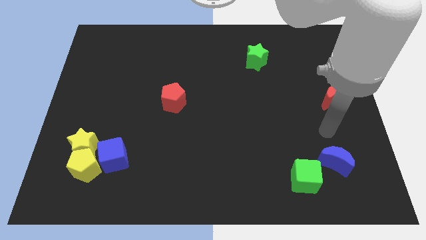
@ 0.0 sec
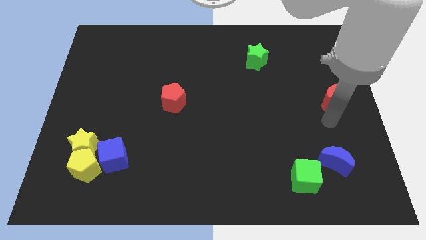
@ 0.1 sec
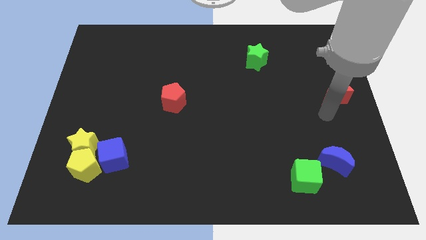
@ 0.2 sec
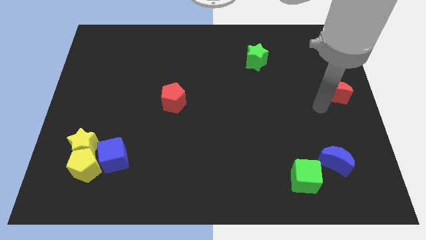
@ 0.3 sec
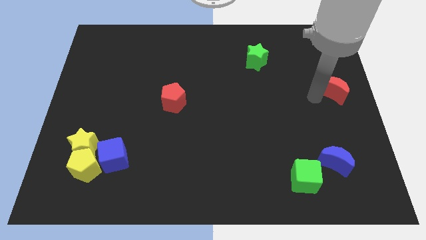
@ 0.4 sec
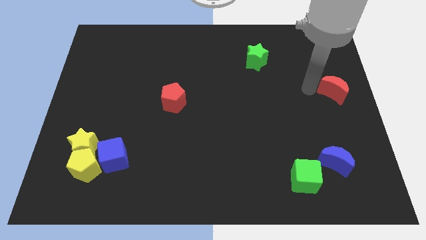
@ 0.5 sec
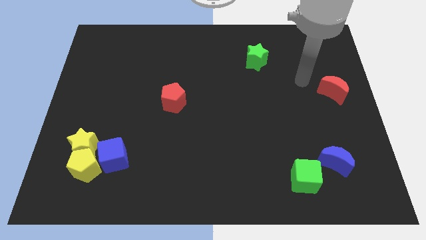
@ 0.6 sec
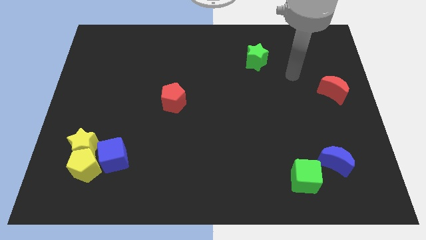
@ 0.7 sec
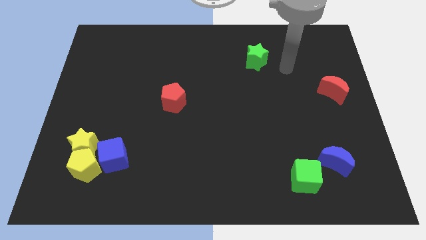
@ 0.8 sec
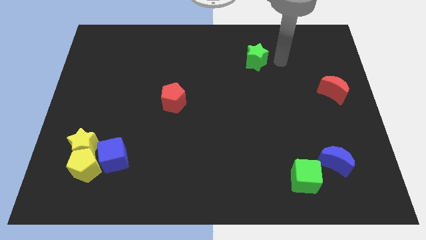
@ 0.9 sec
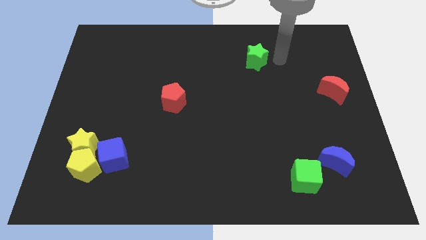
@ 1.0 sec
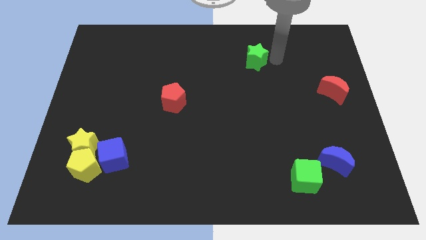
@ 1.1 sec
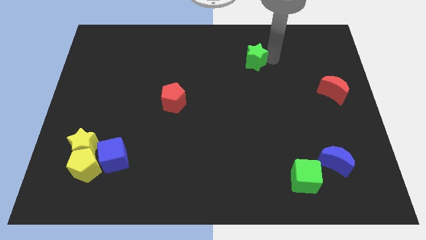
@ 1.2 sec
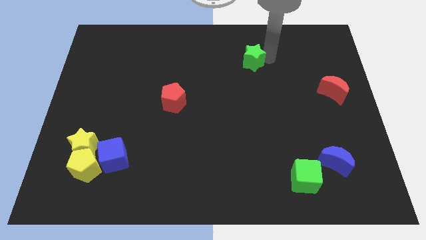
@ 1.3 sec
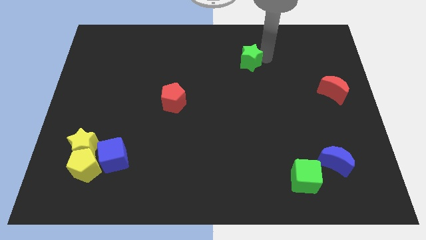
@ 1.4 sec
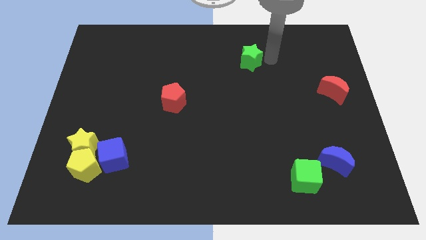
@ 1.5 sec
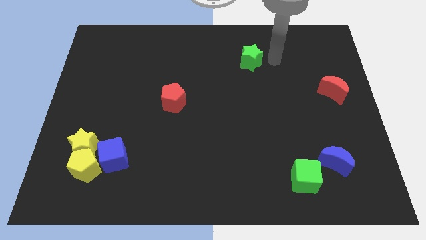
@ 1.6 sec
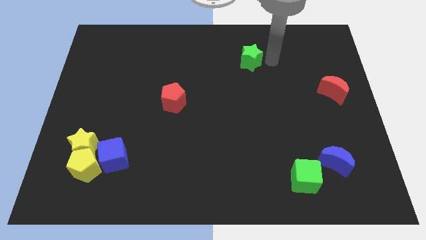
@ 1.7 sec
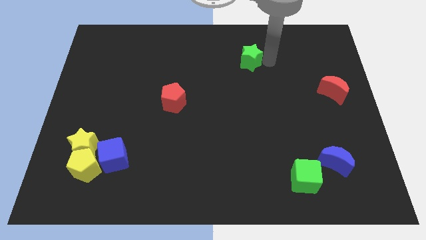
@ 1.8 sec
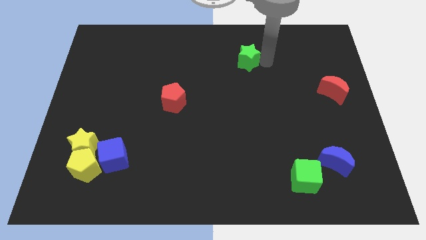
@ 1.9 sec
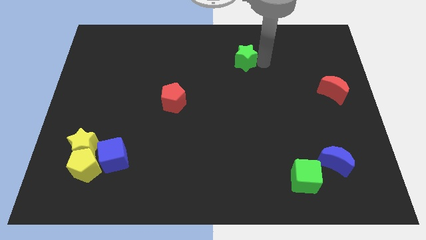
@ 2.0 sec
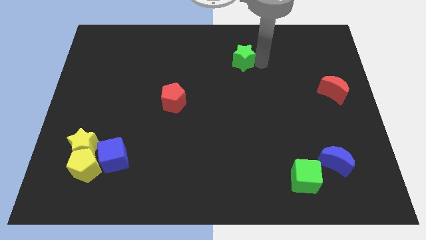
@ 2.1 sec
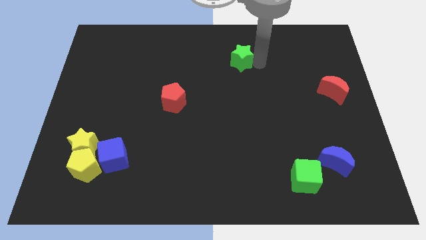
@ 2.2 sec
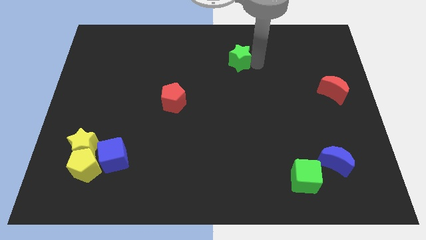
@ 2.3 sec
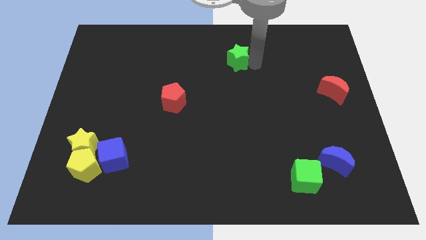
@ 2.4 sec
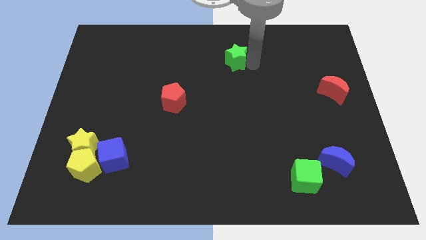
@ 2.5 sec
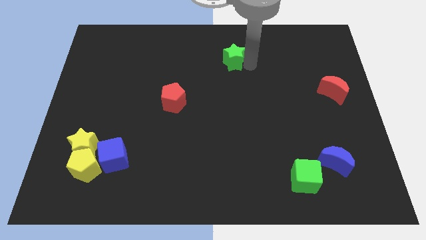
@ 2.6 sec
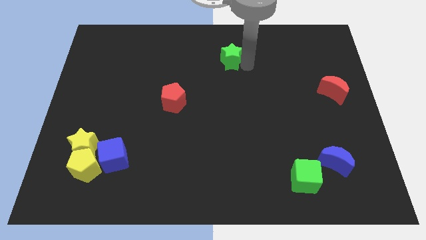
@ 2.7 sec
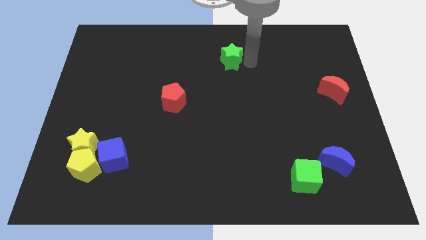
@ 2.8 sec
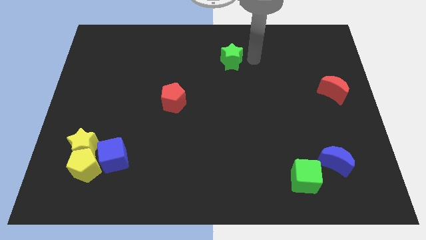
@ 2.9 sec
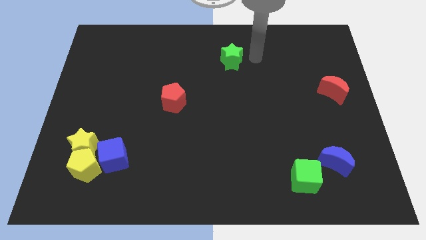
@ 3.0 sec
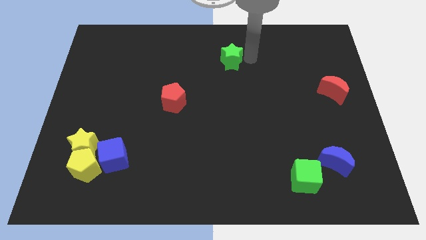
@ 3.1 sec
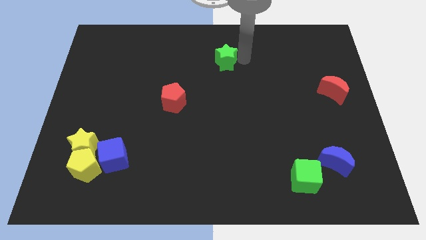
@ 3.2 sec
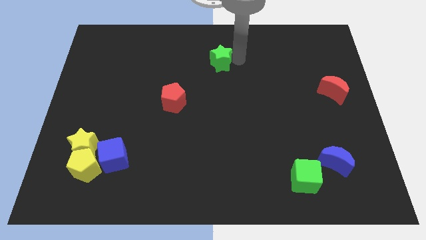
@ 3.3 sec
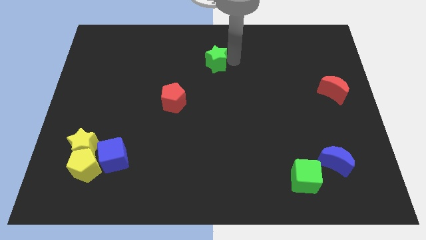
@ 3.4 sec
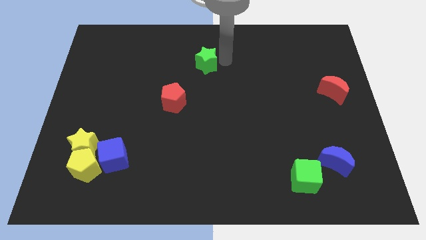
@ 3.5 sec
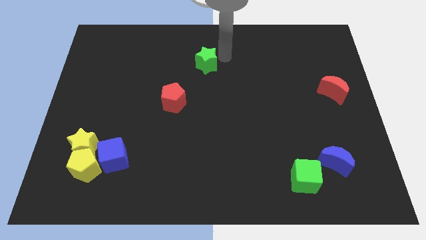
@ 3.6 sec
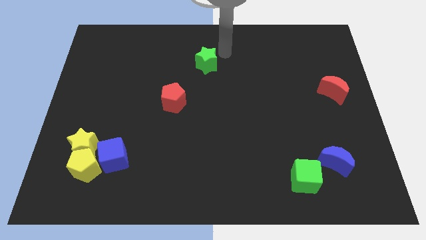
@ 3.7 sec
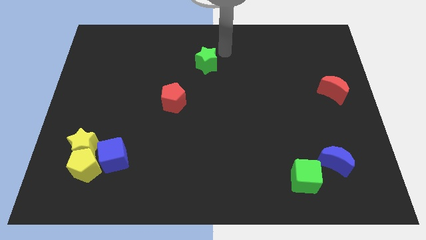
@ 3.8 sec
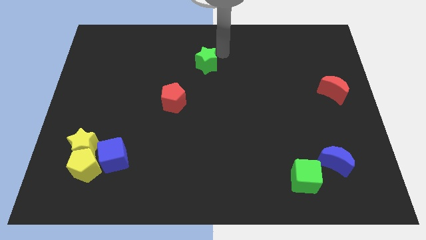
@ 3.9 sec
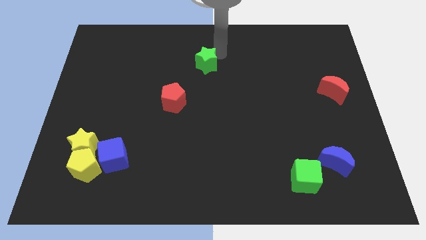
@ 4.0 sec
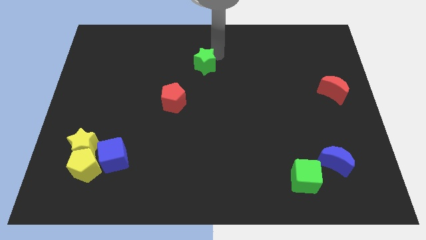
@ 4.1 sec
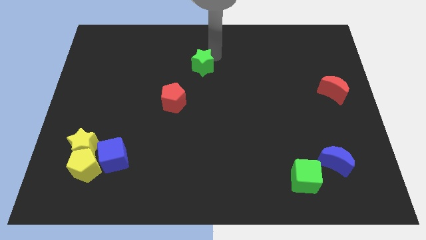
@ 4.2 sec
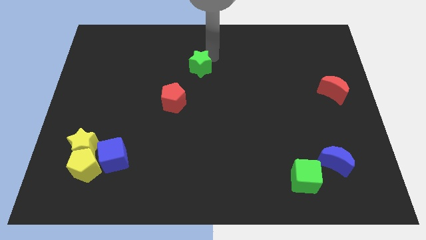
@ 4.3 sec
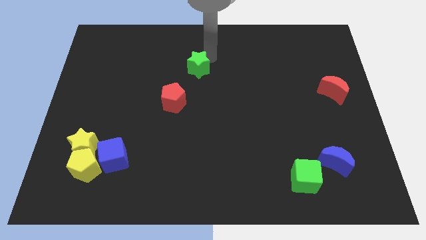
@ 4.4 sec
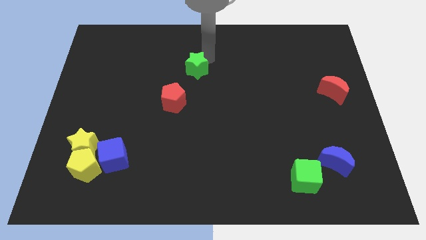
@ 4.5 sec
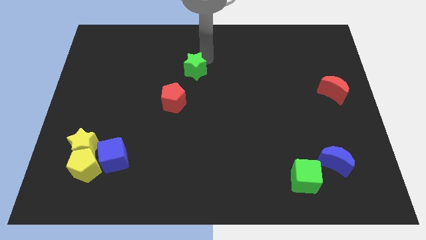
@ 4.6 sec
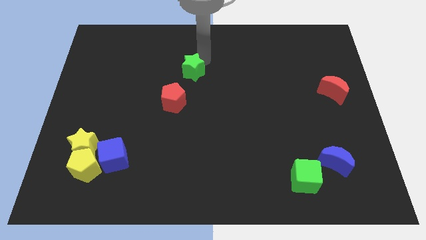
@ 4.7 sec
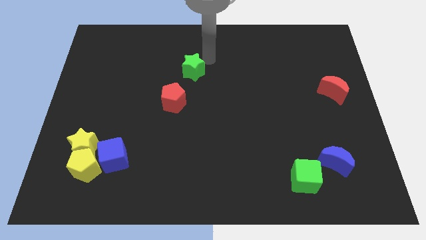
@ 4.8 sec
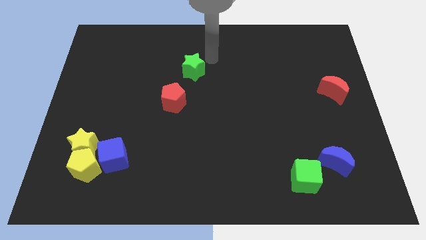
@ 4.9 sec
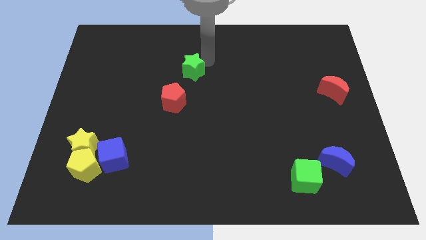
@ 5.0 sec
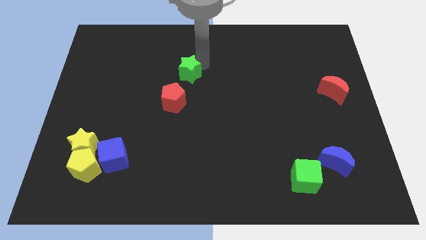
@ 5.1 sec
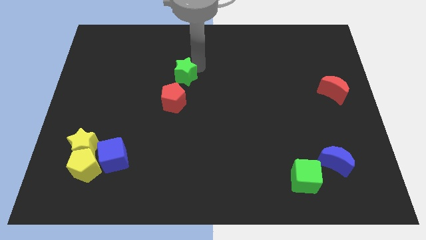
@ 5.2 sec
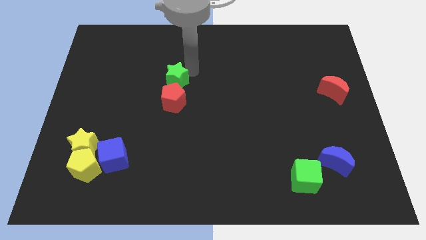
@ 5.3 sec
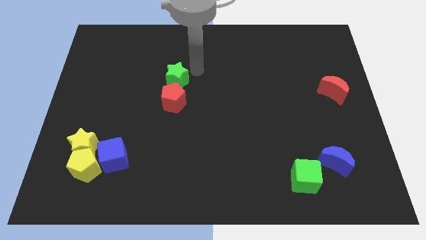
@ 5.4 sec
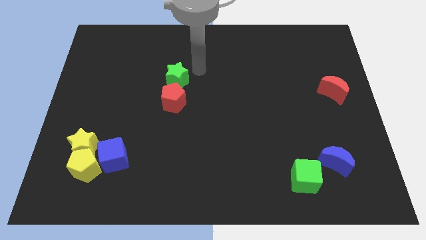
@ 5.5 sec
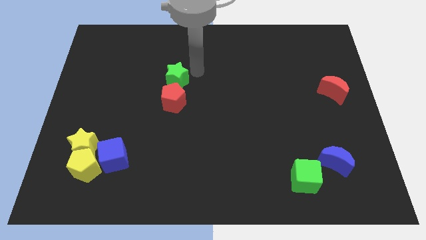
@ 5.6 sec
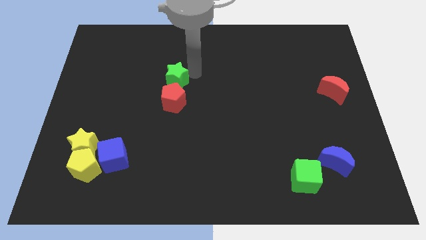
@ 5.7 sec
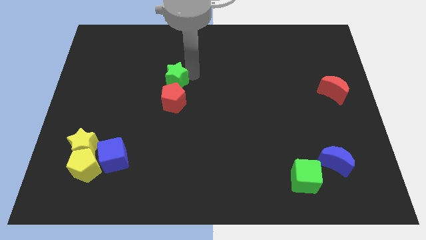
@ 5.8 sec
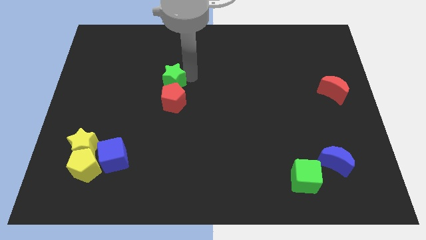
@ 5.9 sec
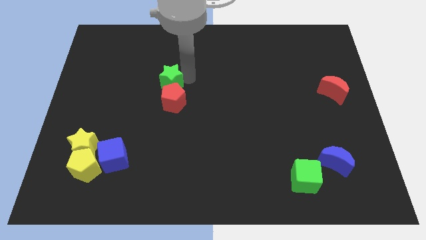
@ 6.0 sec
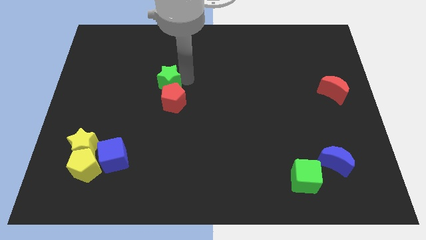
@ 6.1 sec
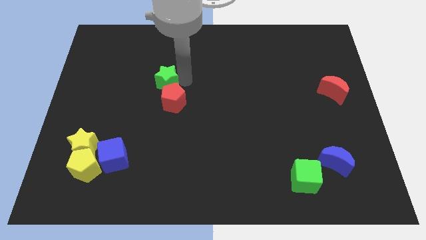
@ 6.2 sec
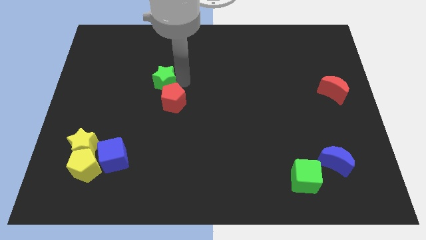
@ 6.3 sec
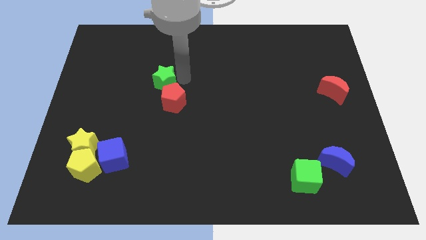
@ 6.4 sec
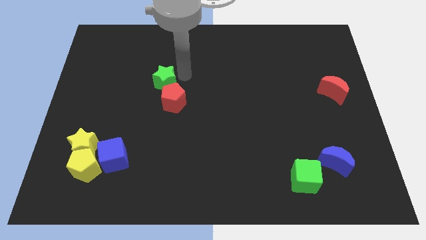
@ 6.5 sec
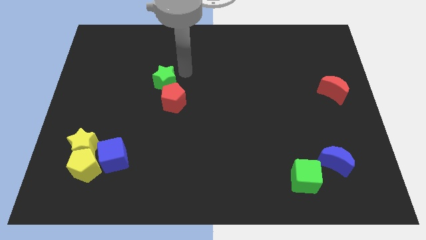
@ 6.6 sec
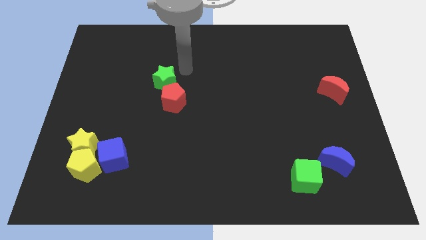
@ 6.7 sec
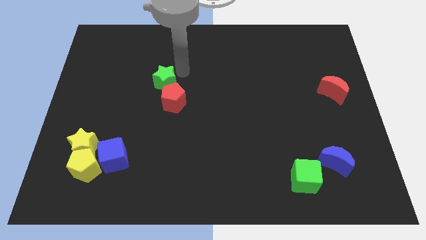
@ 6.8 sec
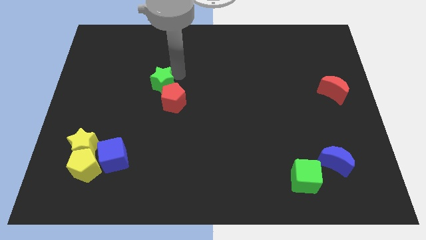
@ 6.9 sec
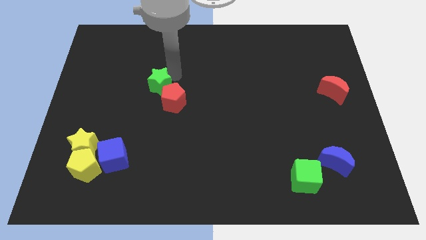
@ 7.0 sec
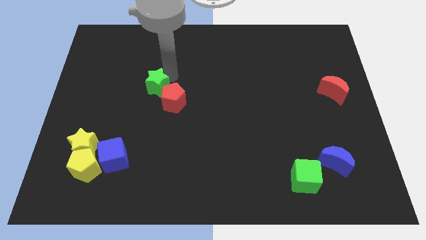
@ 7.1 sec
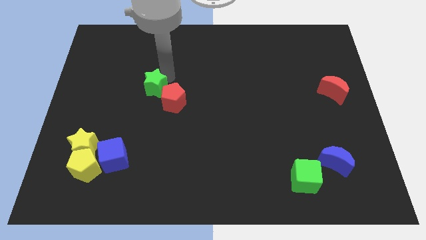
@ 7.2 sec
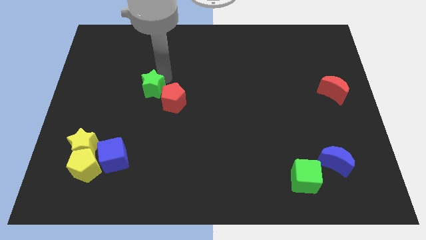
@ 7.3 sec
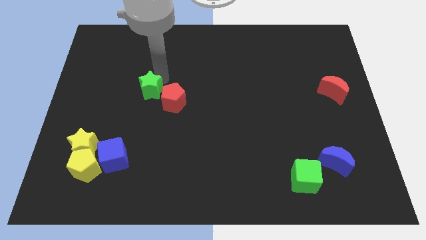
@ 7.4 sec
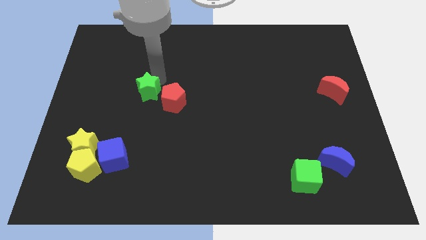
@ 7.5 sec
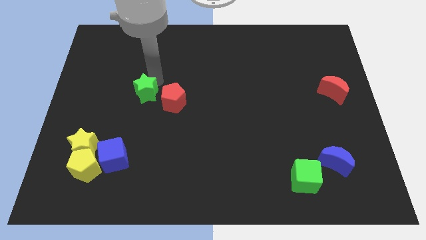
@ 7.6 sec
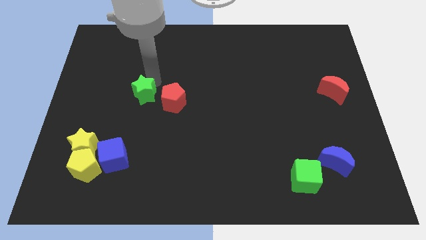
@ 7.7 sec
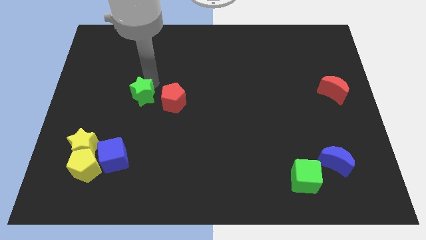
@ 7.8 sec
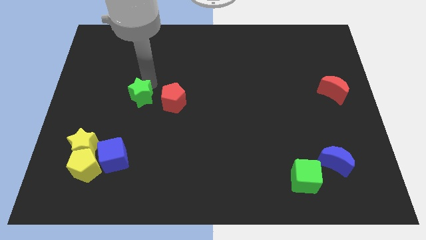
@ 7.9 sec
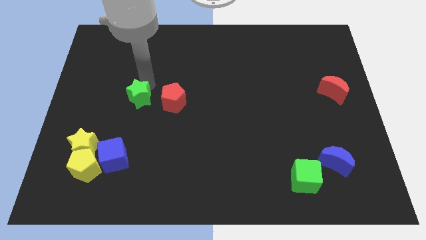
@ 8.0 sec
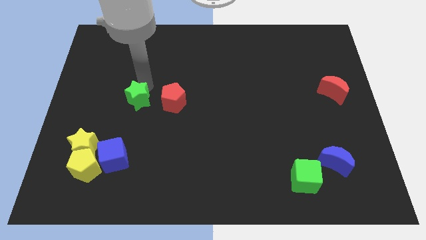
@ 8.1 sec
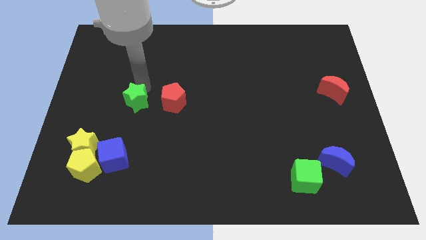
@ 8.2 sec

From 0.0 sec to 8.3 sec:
put the green star to the top of the blue cube
